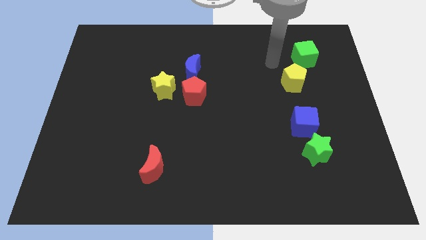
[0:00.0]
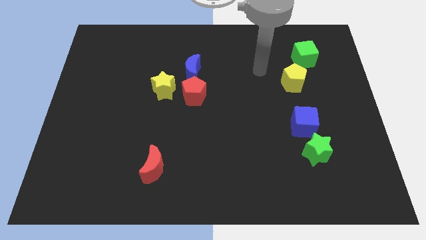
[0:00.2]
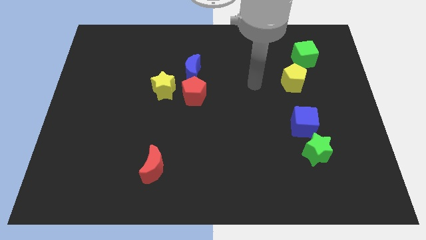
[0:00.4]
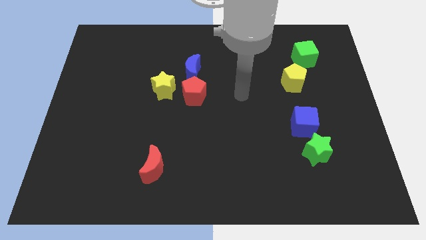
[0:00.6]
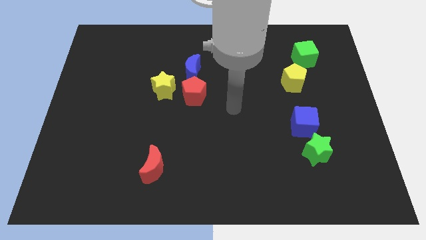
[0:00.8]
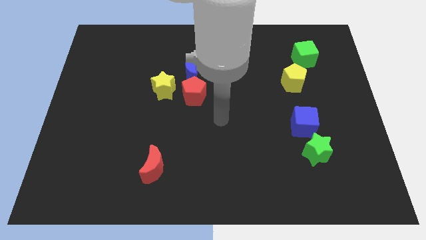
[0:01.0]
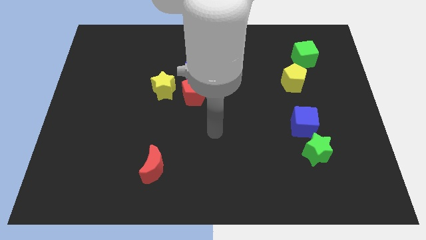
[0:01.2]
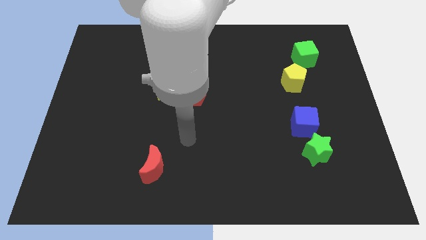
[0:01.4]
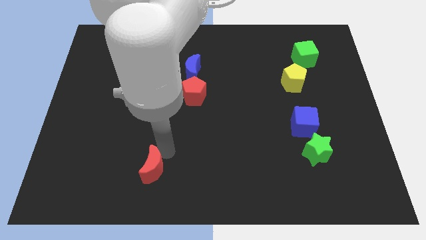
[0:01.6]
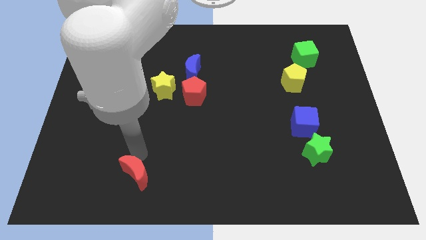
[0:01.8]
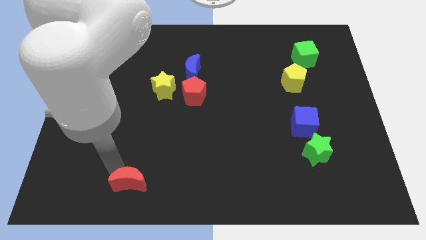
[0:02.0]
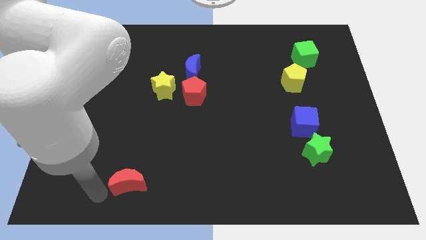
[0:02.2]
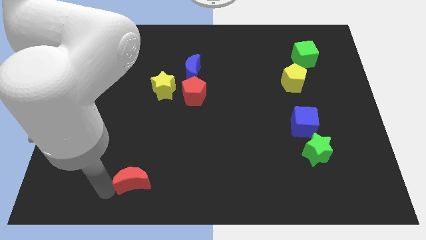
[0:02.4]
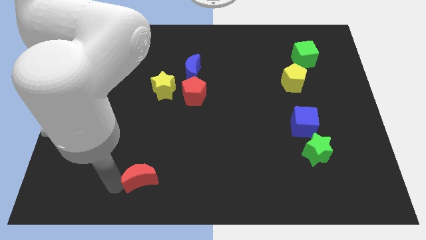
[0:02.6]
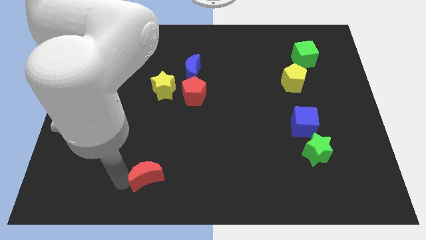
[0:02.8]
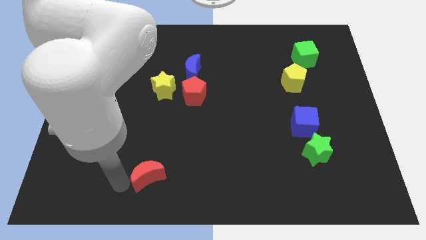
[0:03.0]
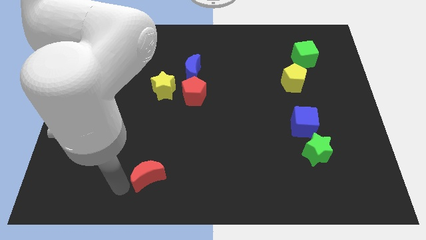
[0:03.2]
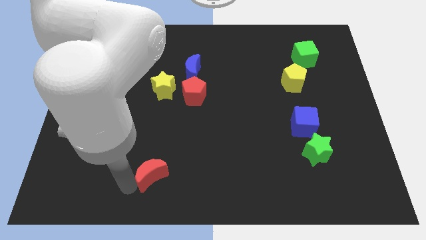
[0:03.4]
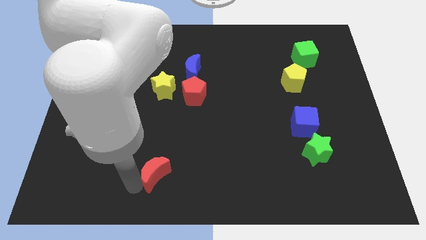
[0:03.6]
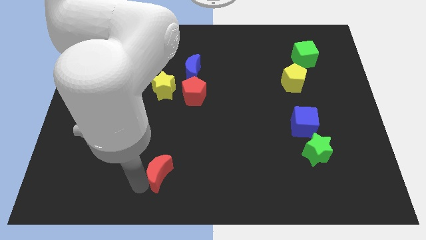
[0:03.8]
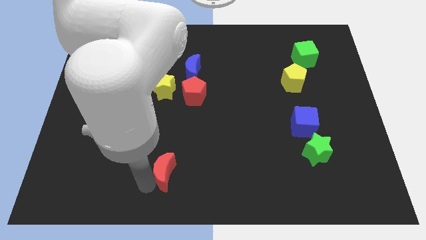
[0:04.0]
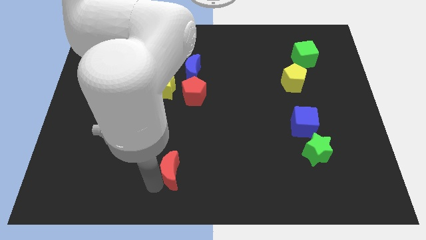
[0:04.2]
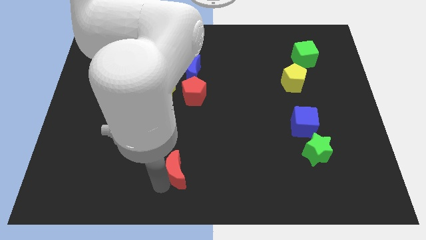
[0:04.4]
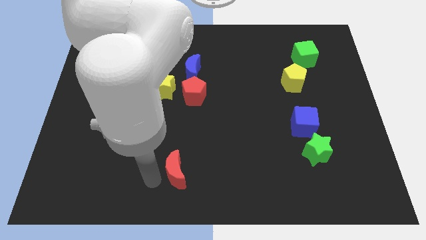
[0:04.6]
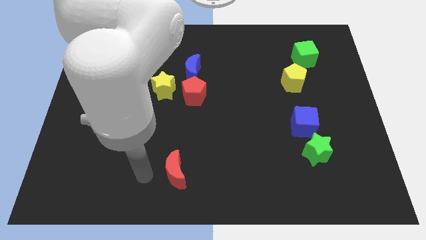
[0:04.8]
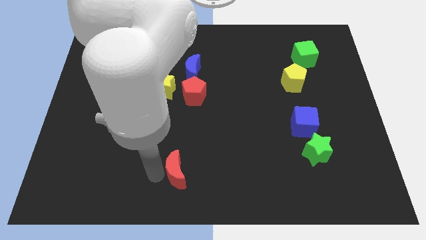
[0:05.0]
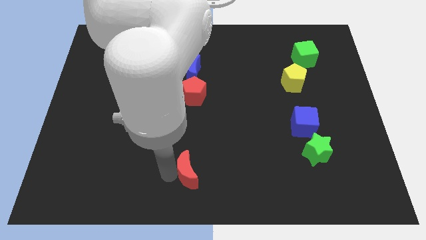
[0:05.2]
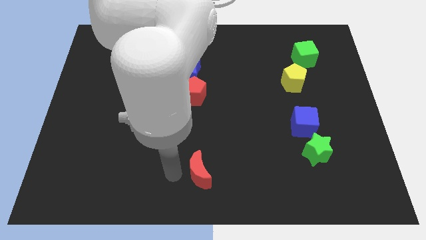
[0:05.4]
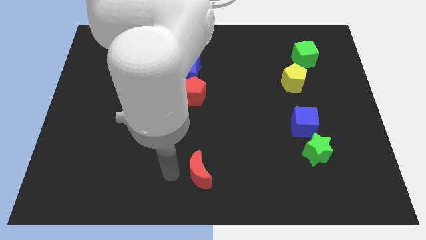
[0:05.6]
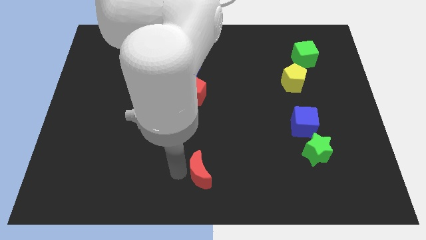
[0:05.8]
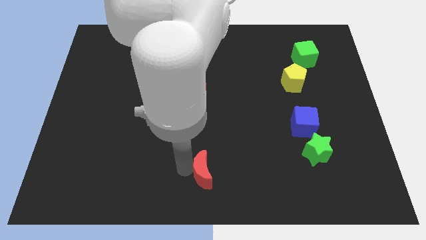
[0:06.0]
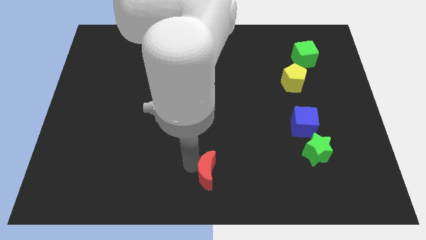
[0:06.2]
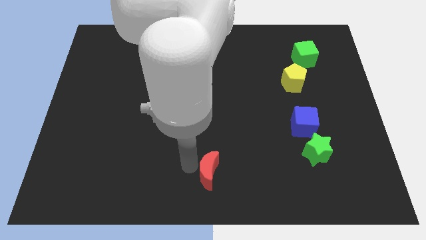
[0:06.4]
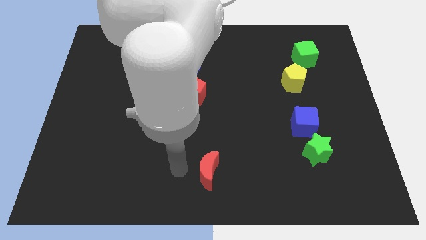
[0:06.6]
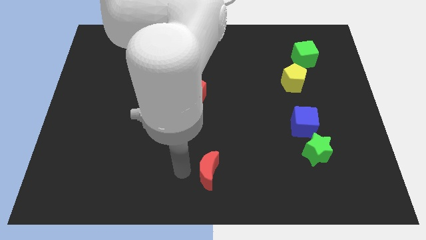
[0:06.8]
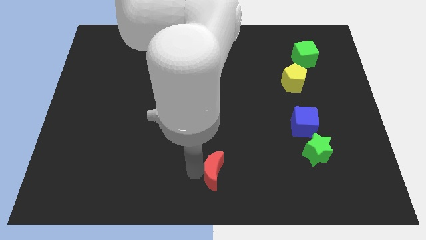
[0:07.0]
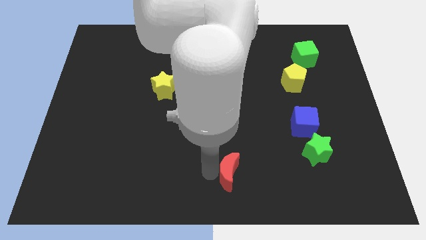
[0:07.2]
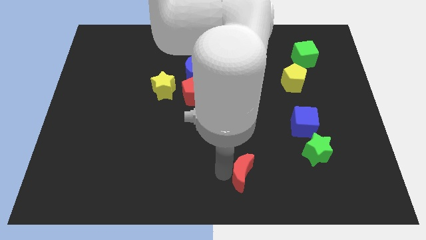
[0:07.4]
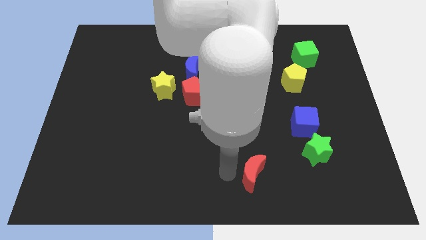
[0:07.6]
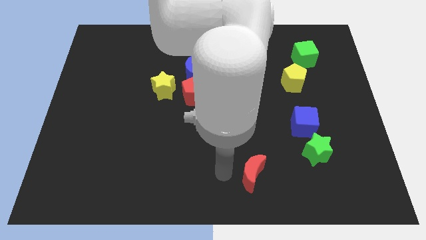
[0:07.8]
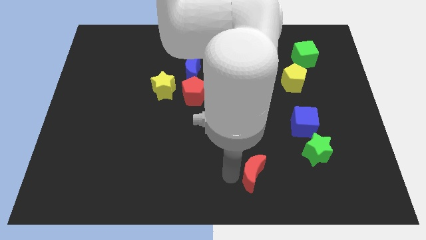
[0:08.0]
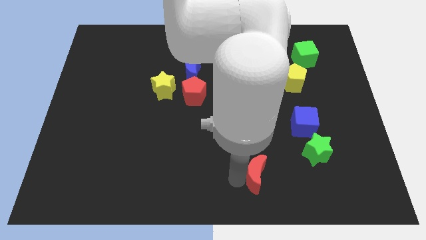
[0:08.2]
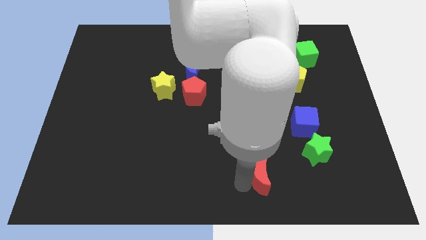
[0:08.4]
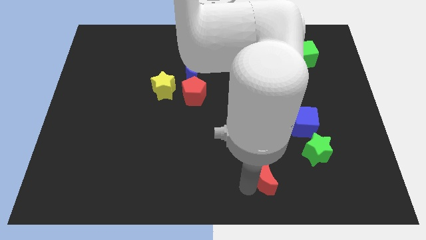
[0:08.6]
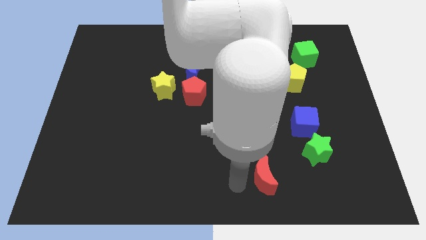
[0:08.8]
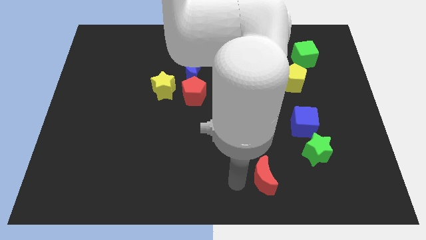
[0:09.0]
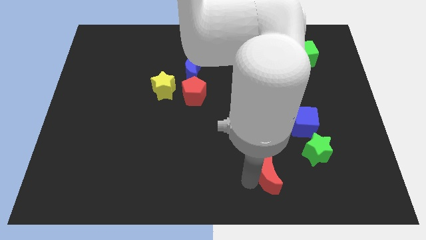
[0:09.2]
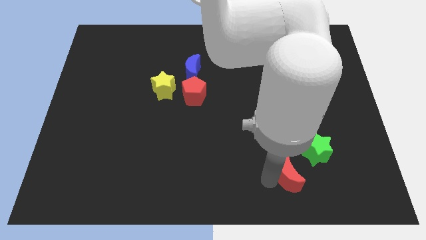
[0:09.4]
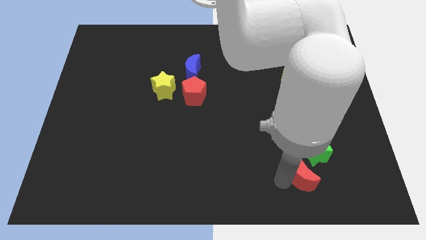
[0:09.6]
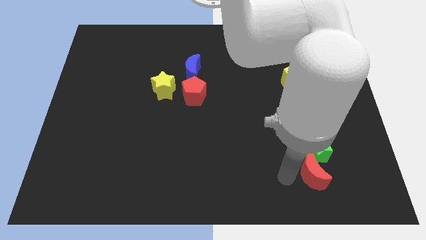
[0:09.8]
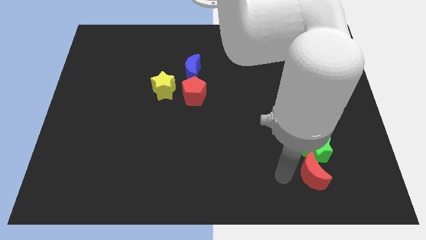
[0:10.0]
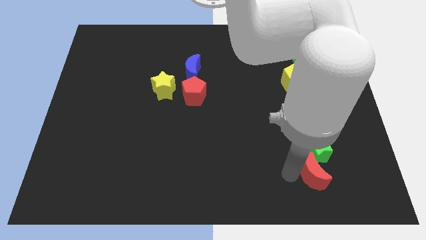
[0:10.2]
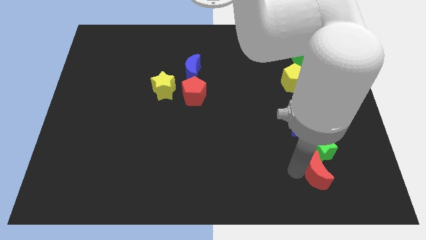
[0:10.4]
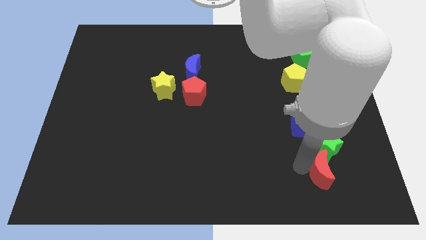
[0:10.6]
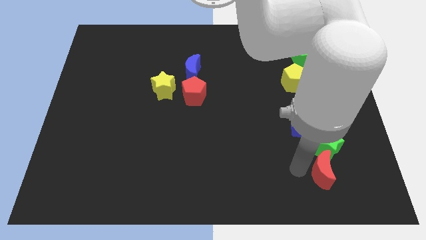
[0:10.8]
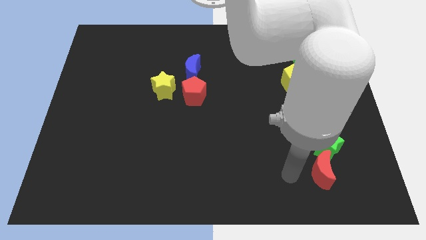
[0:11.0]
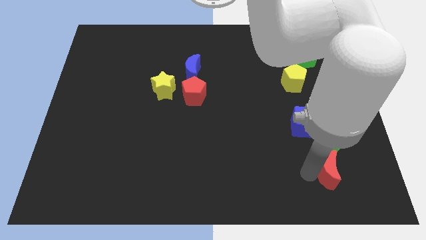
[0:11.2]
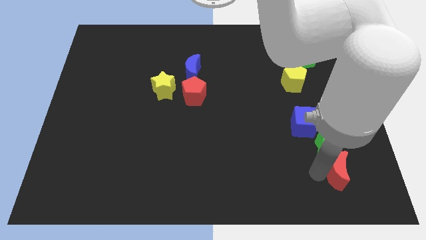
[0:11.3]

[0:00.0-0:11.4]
put the red moon to the bottom right side of the green star

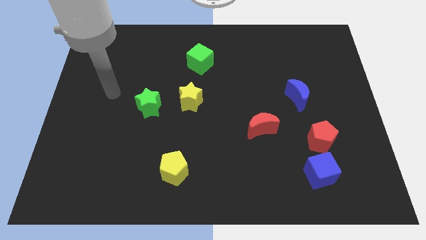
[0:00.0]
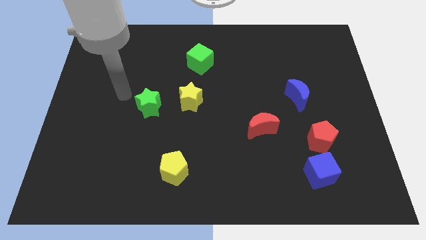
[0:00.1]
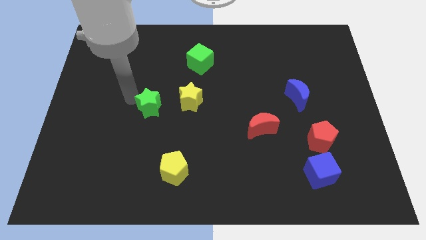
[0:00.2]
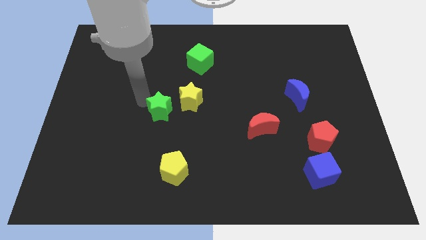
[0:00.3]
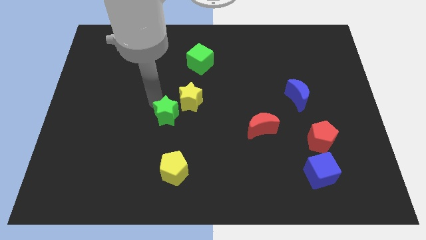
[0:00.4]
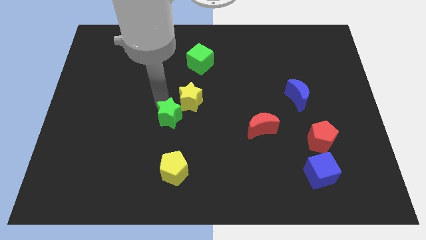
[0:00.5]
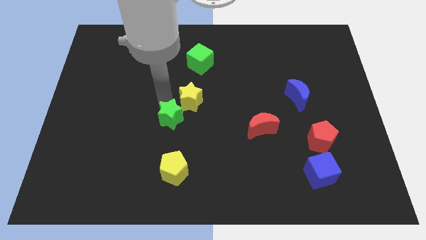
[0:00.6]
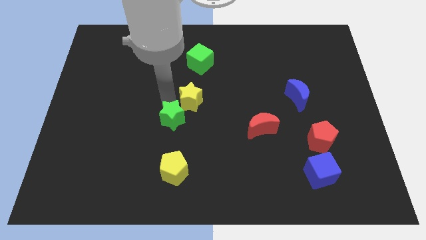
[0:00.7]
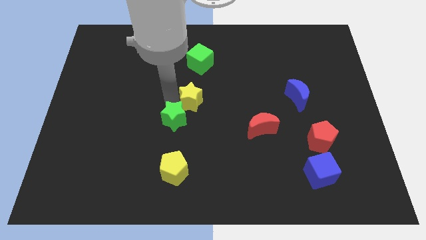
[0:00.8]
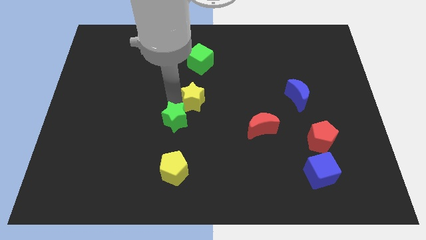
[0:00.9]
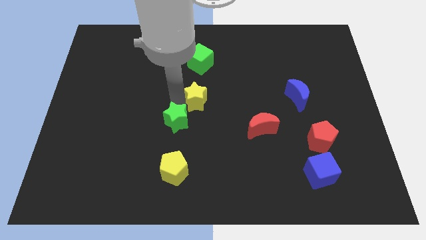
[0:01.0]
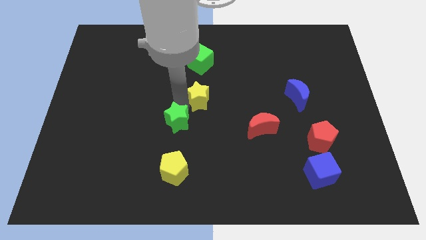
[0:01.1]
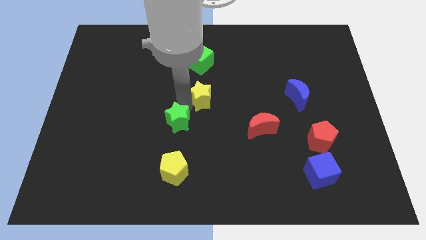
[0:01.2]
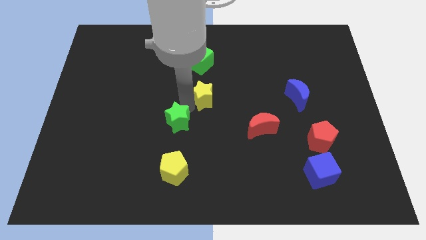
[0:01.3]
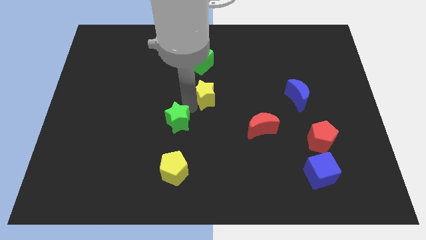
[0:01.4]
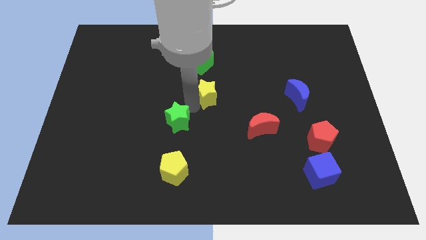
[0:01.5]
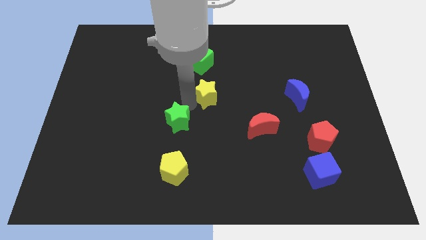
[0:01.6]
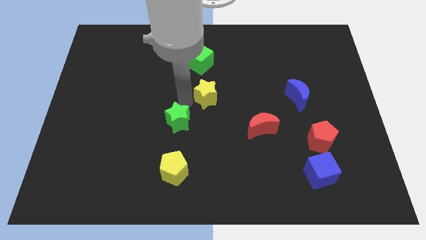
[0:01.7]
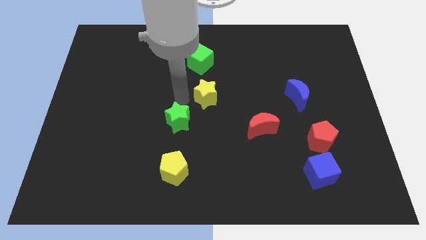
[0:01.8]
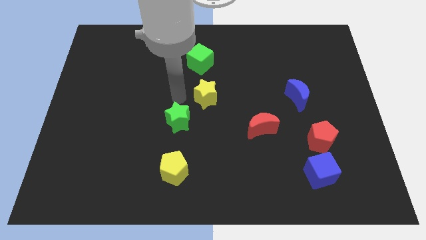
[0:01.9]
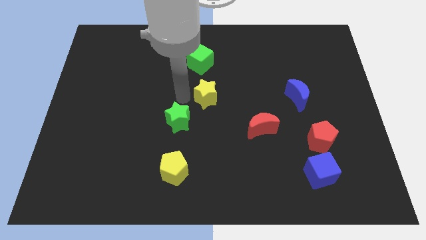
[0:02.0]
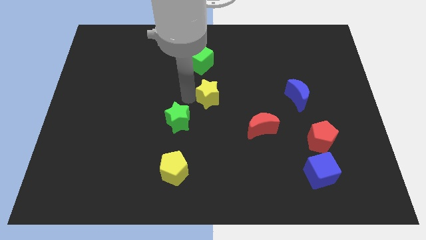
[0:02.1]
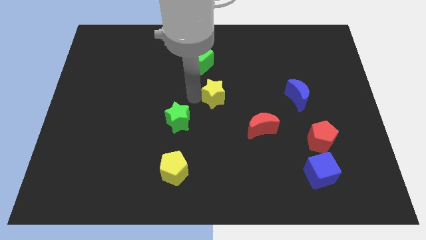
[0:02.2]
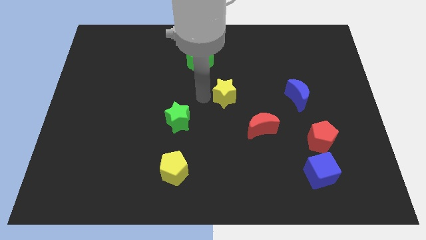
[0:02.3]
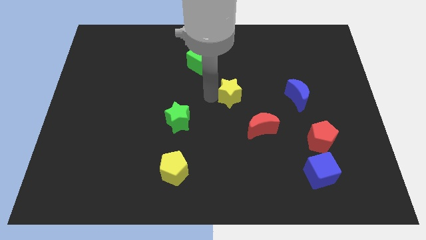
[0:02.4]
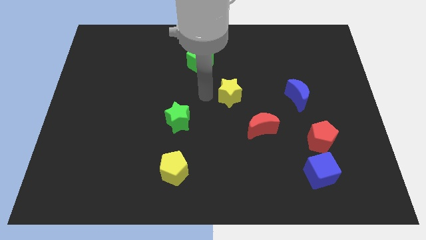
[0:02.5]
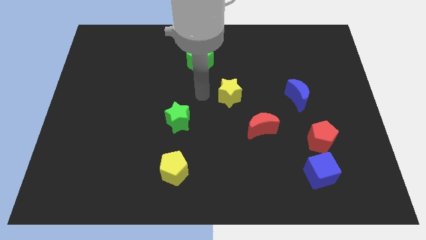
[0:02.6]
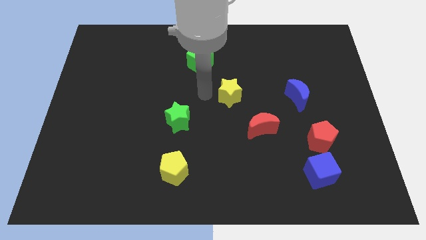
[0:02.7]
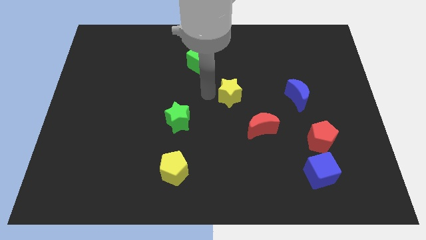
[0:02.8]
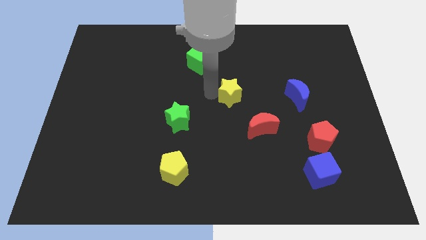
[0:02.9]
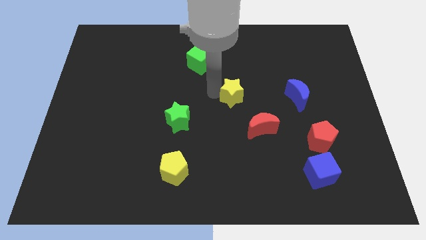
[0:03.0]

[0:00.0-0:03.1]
slide the yellow star just left of the blue moon
